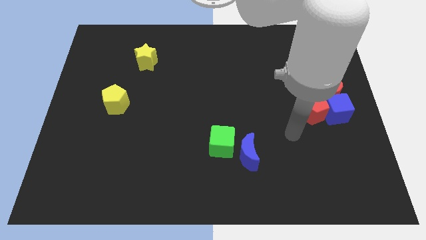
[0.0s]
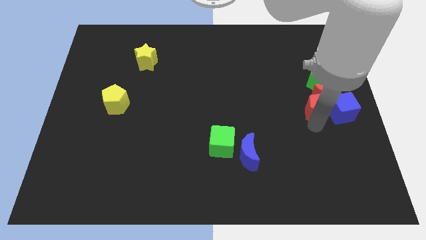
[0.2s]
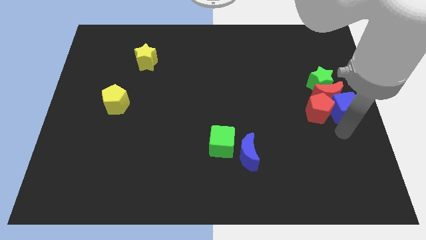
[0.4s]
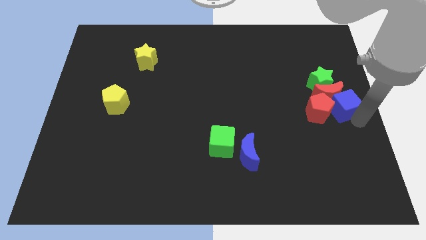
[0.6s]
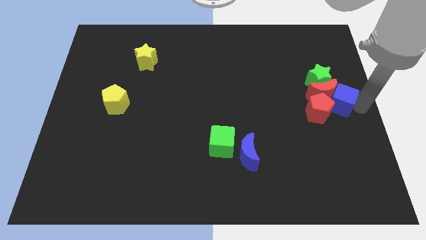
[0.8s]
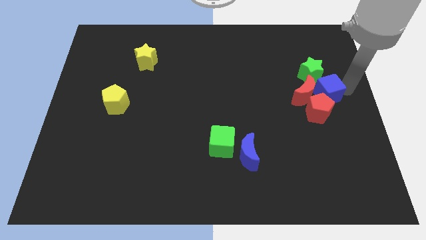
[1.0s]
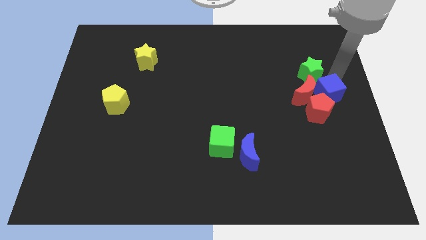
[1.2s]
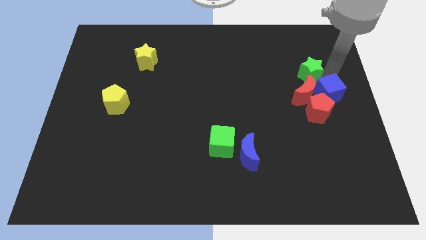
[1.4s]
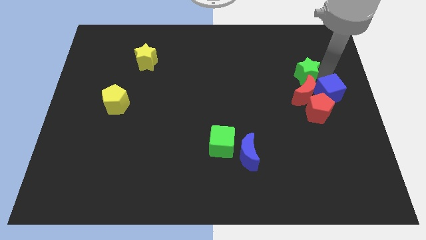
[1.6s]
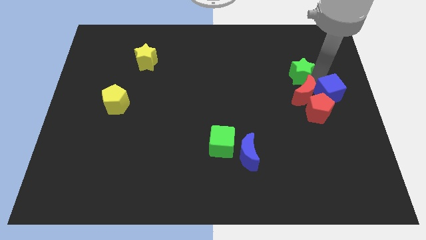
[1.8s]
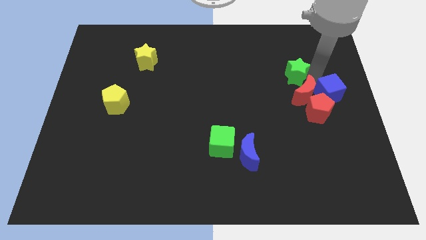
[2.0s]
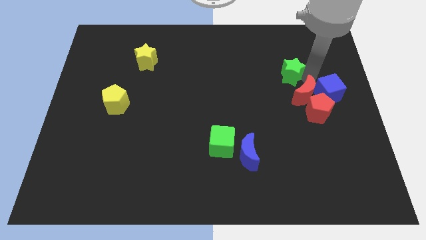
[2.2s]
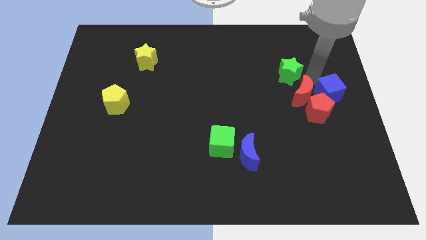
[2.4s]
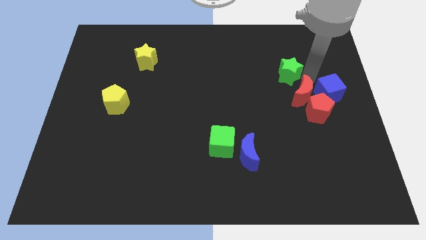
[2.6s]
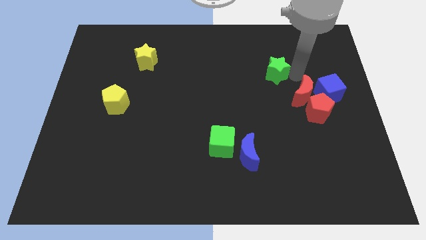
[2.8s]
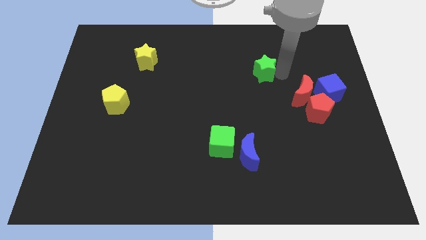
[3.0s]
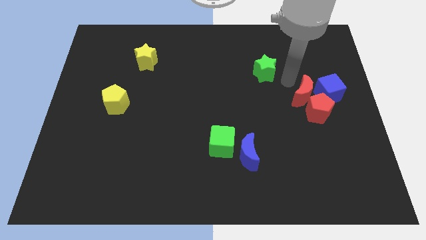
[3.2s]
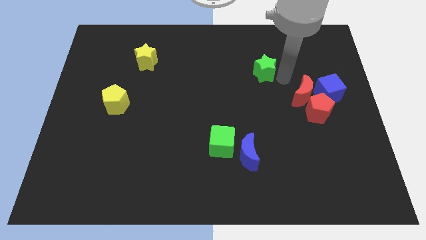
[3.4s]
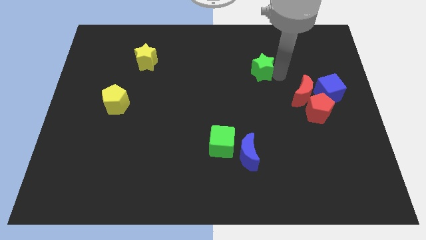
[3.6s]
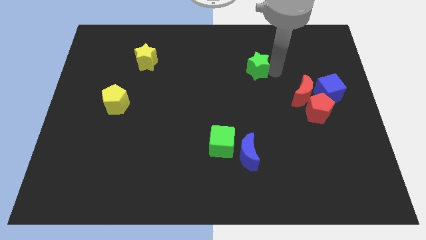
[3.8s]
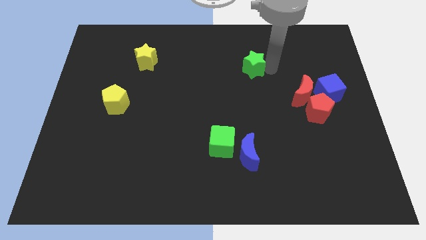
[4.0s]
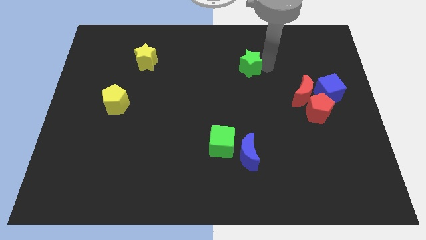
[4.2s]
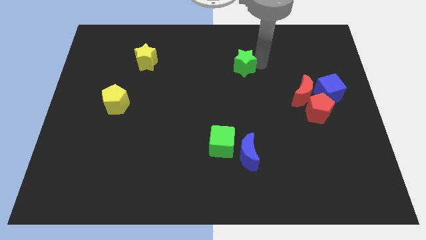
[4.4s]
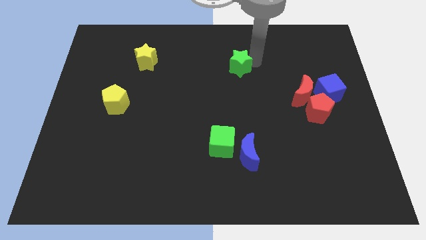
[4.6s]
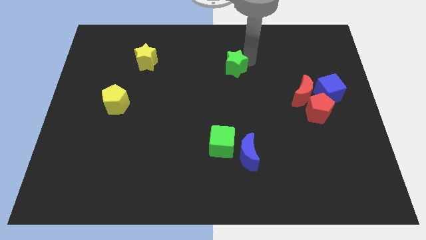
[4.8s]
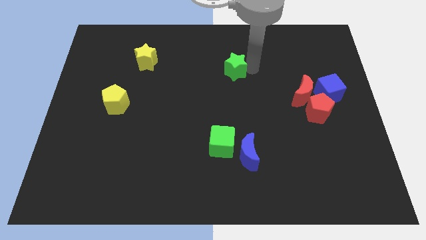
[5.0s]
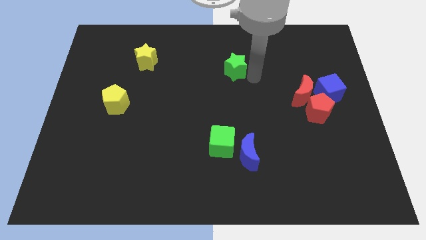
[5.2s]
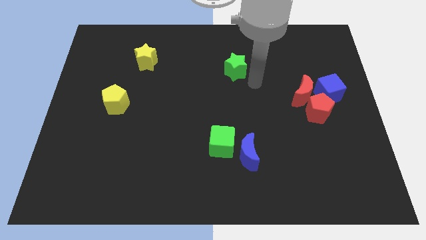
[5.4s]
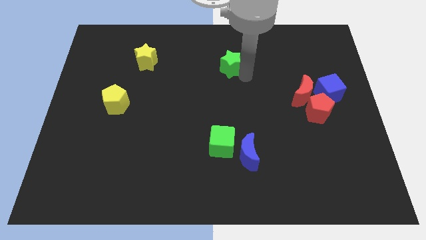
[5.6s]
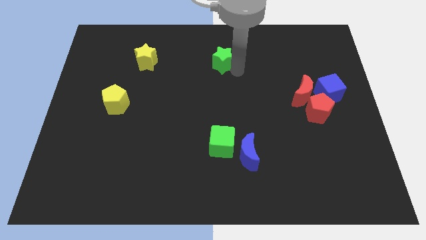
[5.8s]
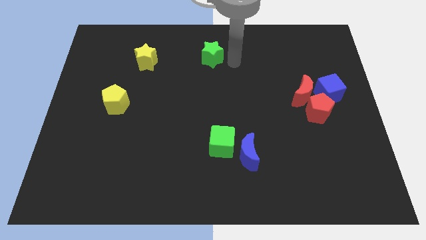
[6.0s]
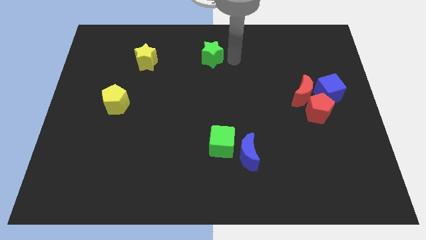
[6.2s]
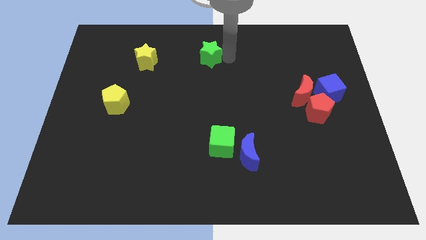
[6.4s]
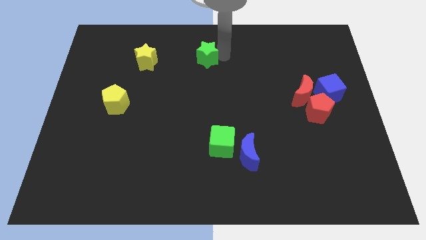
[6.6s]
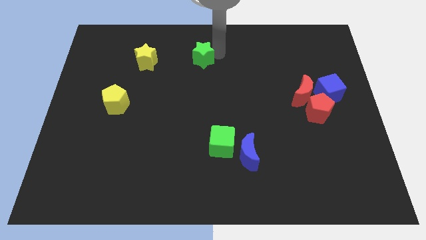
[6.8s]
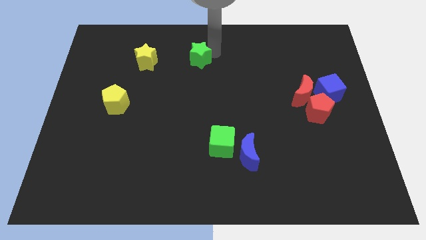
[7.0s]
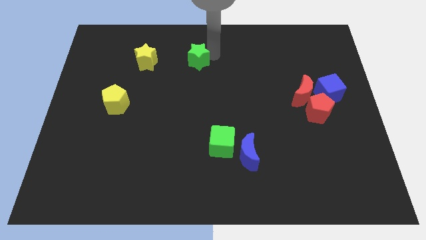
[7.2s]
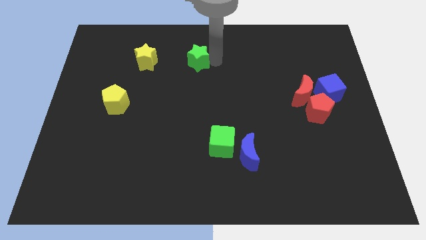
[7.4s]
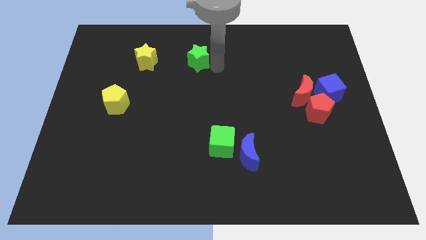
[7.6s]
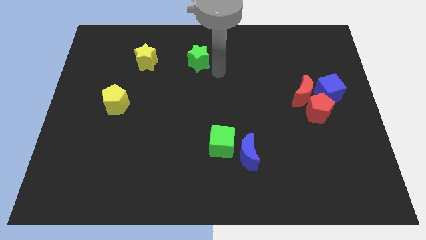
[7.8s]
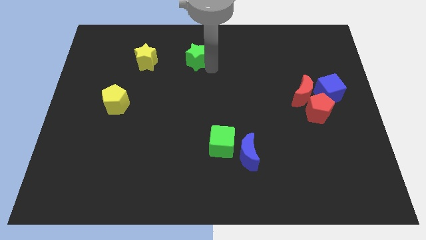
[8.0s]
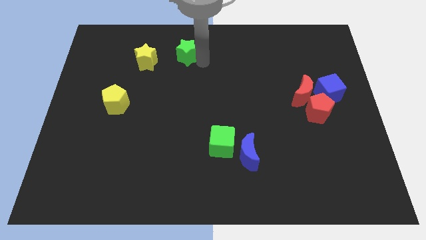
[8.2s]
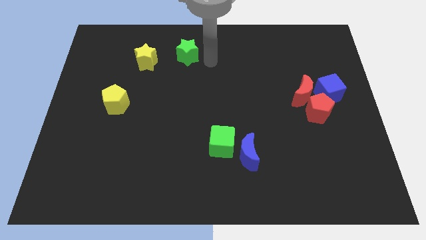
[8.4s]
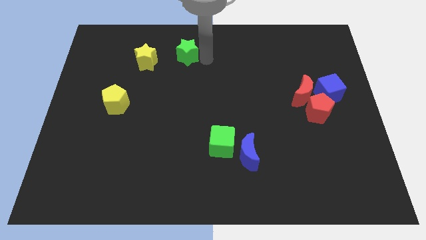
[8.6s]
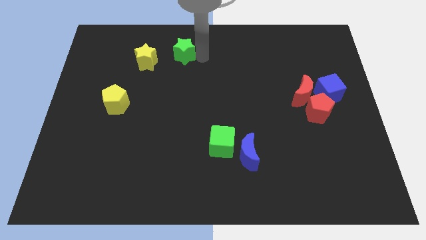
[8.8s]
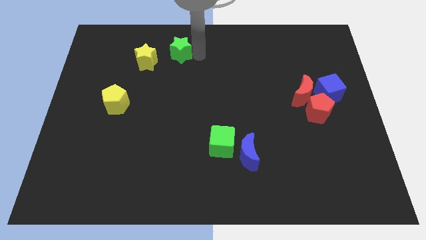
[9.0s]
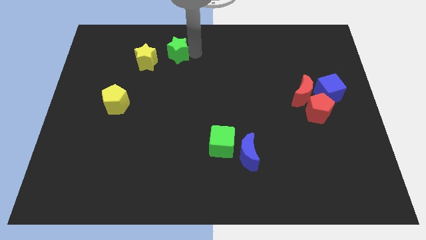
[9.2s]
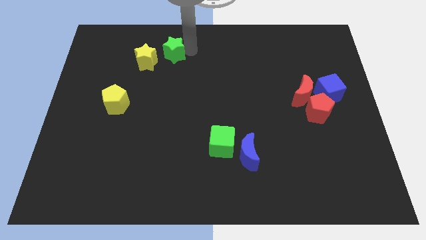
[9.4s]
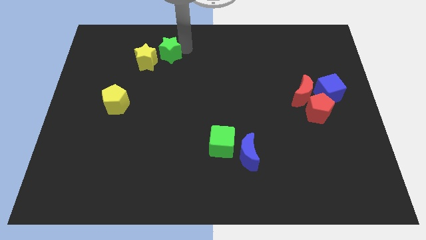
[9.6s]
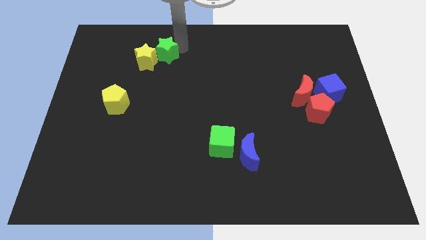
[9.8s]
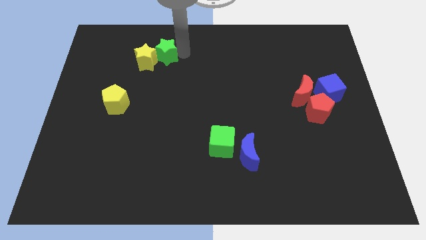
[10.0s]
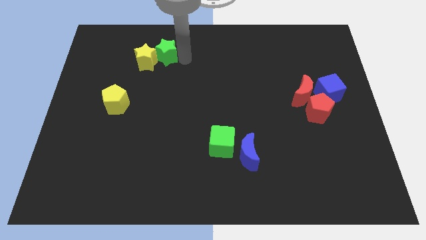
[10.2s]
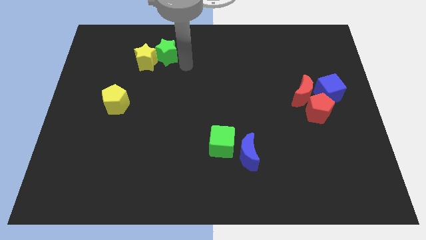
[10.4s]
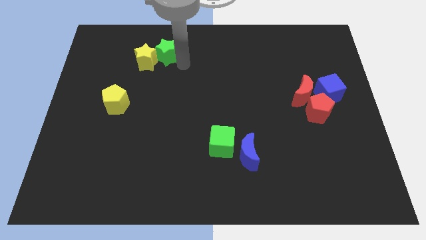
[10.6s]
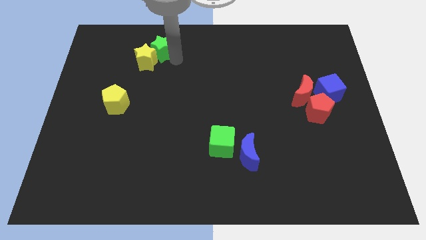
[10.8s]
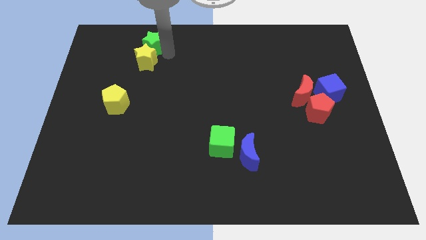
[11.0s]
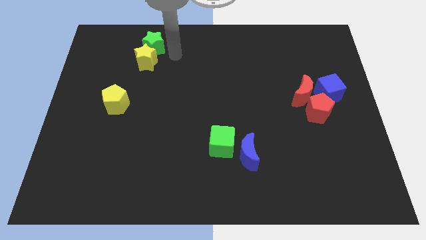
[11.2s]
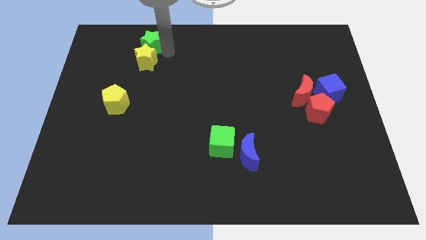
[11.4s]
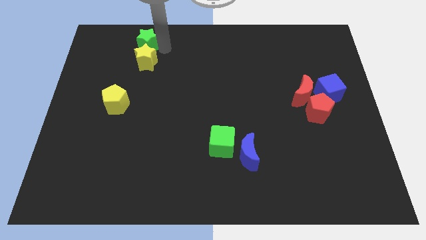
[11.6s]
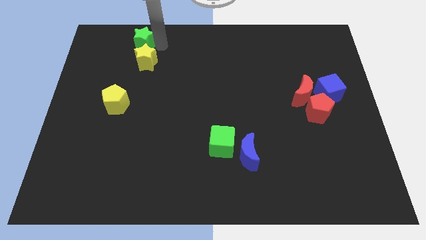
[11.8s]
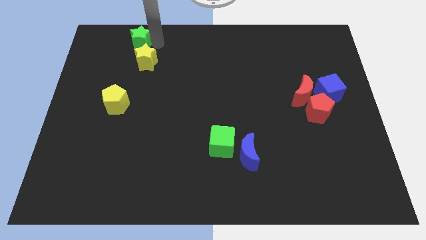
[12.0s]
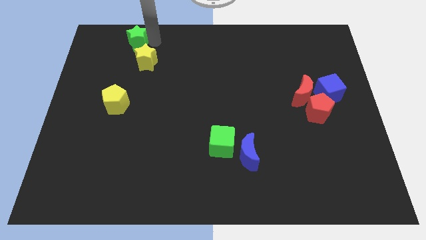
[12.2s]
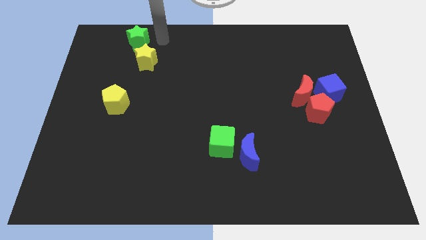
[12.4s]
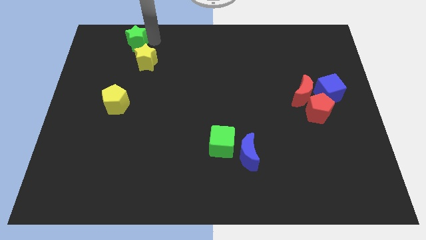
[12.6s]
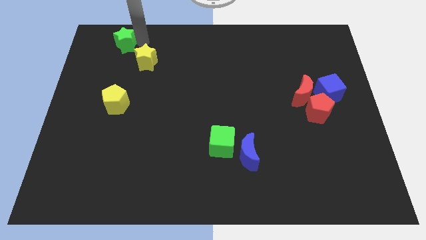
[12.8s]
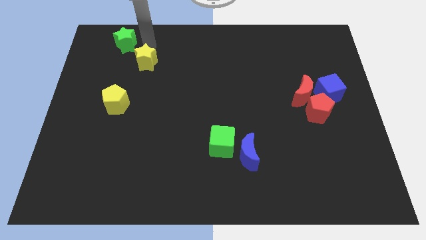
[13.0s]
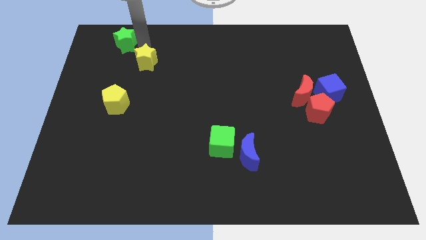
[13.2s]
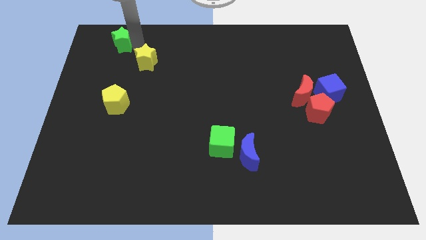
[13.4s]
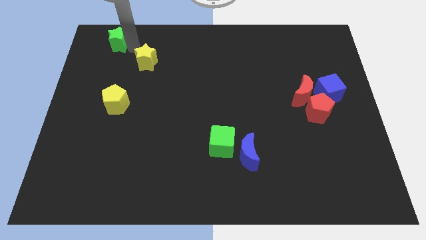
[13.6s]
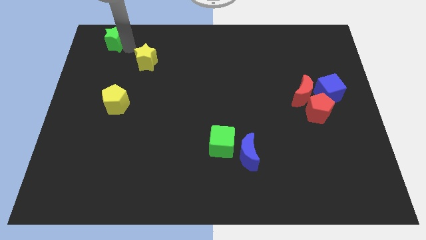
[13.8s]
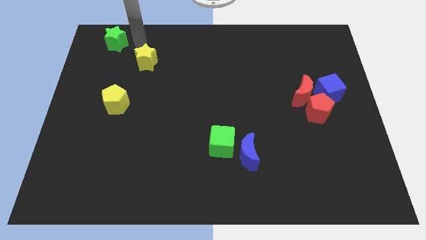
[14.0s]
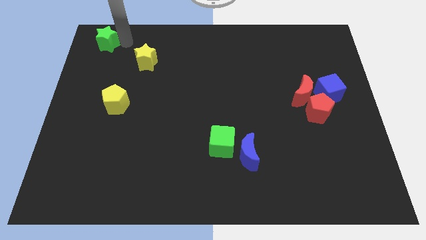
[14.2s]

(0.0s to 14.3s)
slide the green star to the top left
